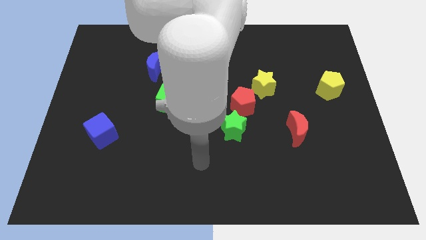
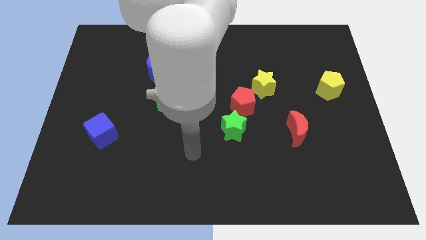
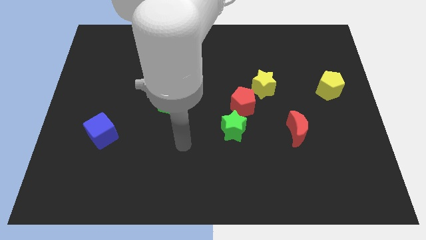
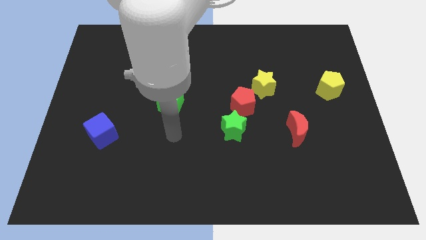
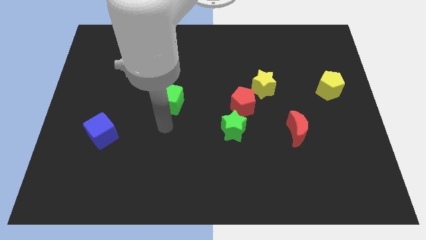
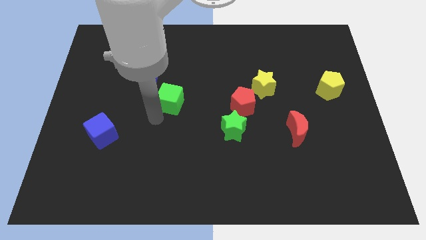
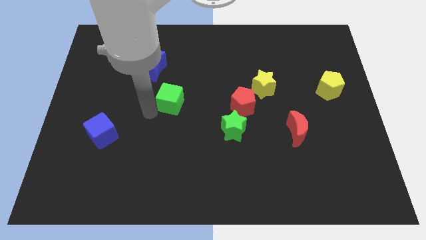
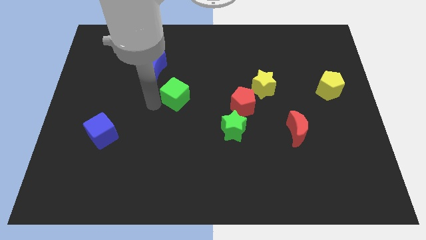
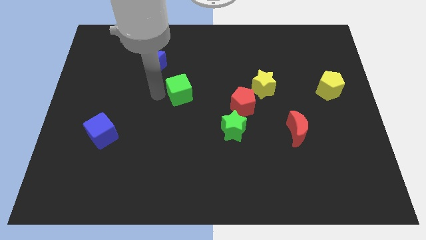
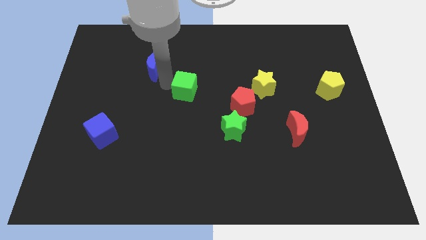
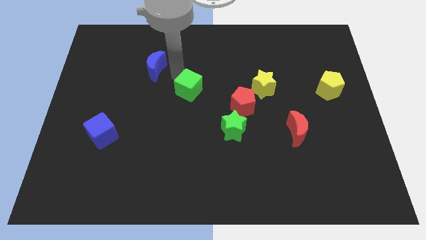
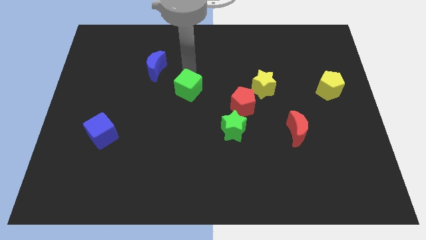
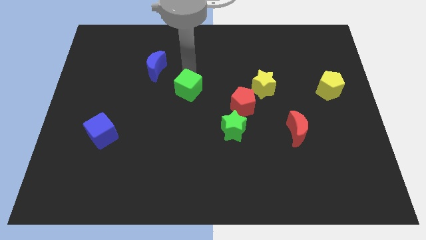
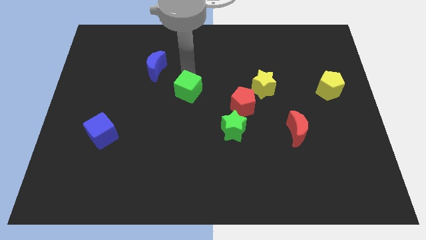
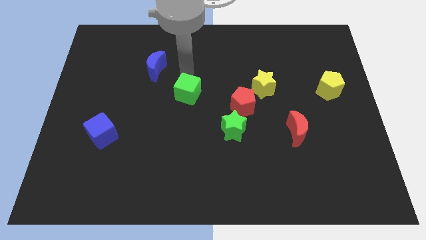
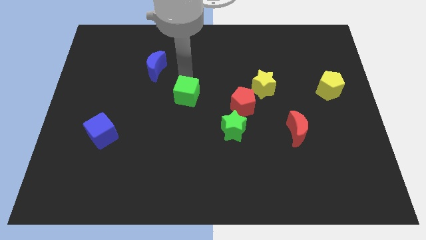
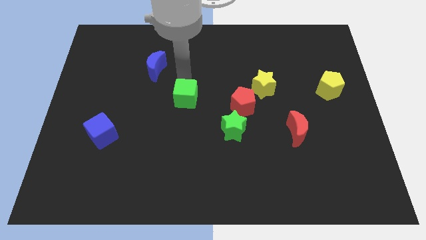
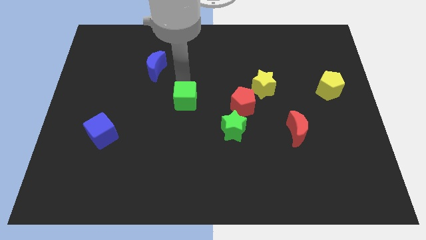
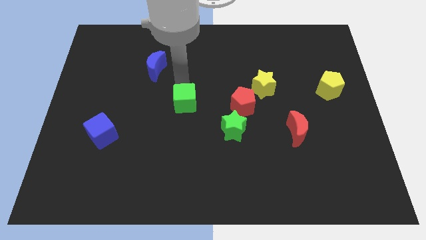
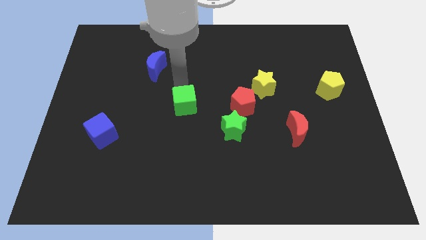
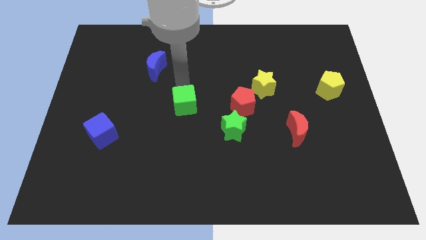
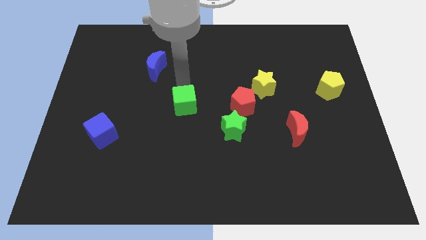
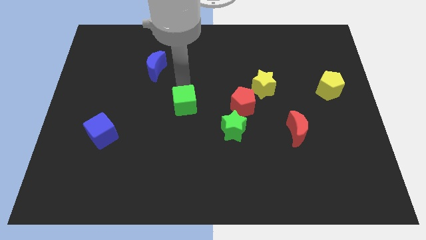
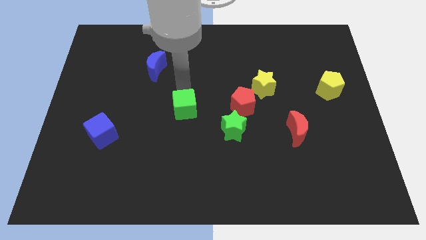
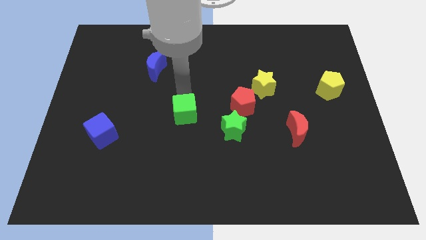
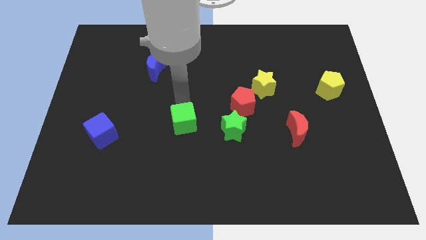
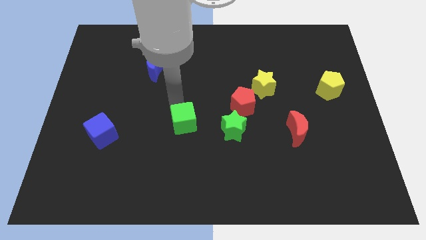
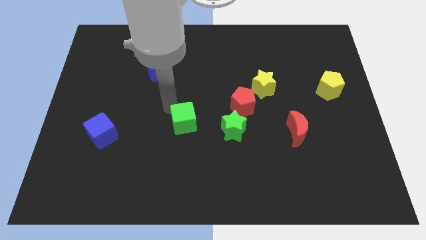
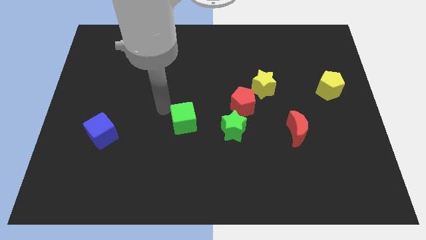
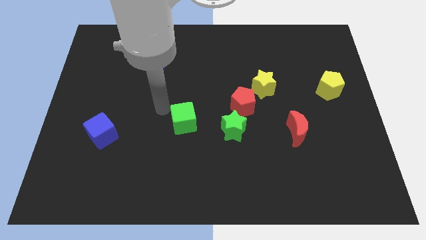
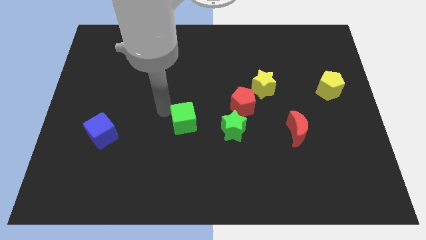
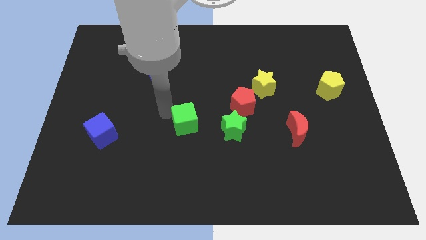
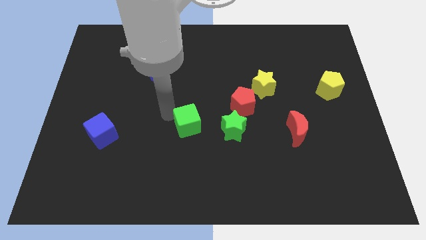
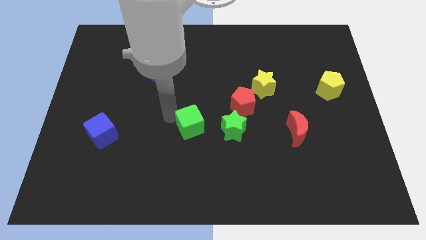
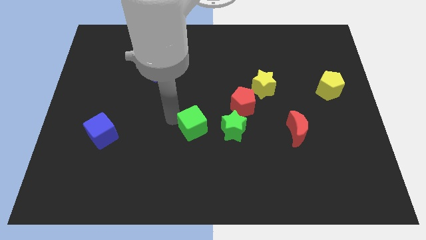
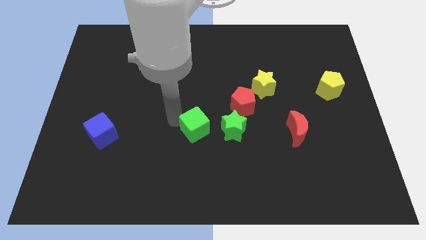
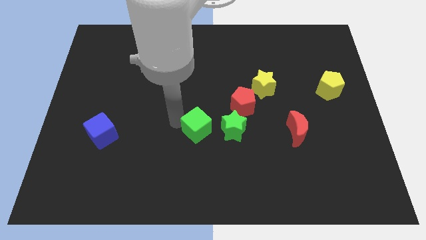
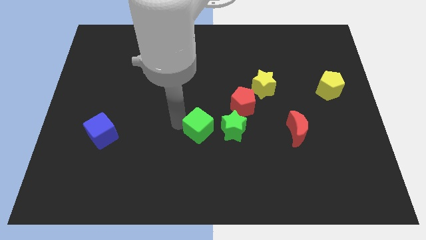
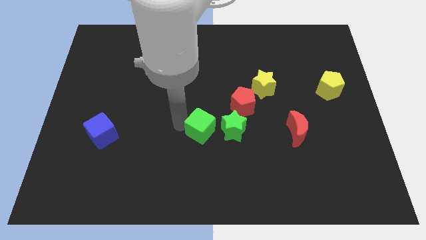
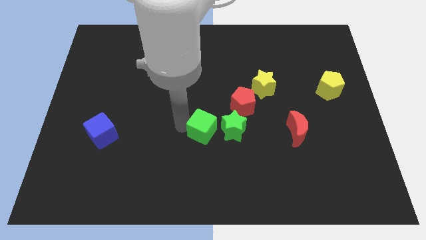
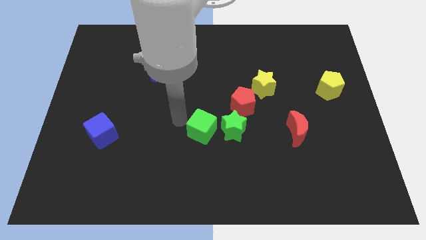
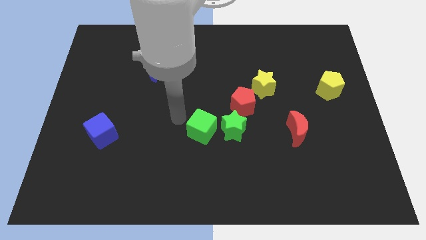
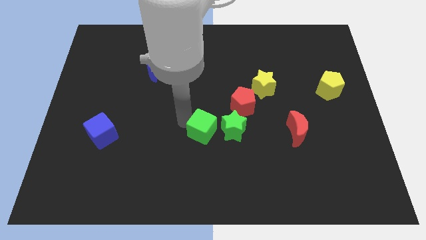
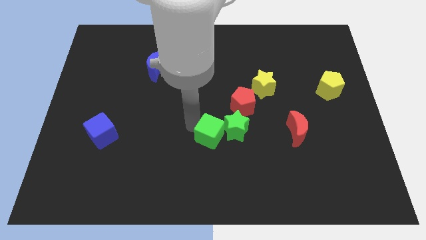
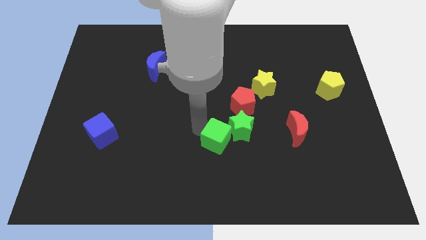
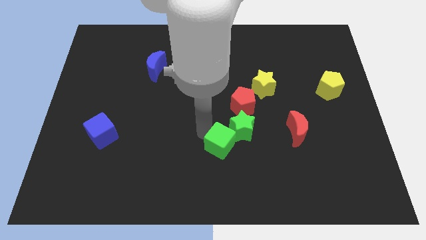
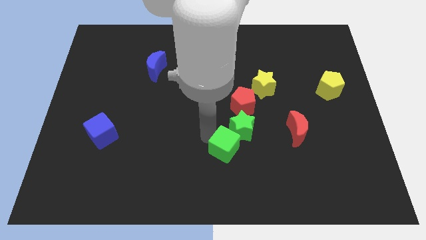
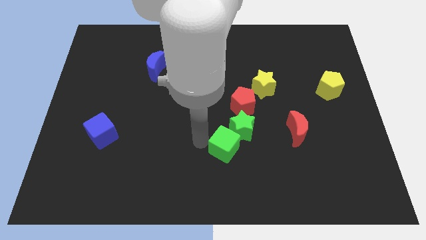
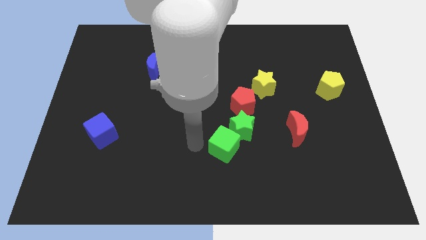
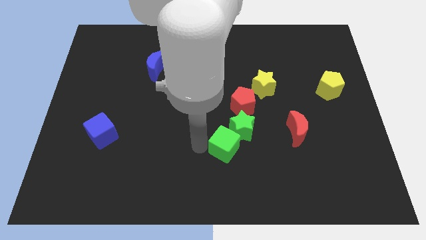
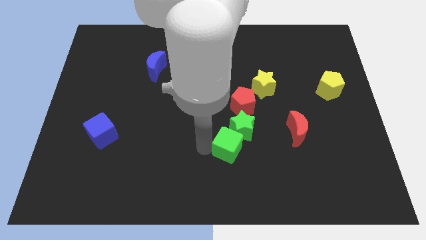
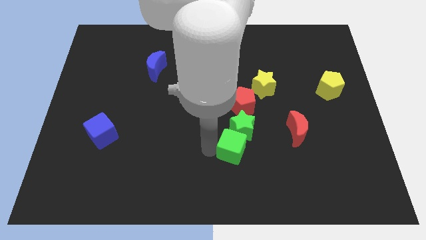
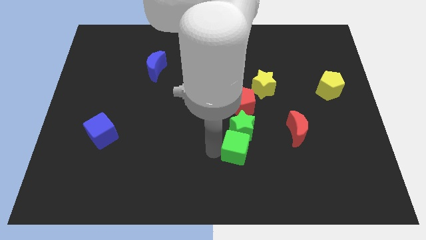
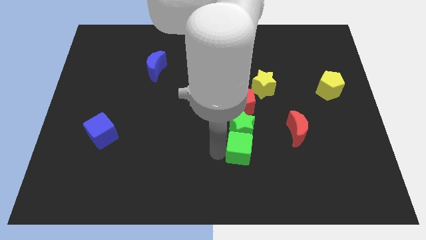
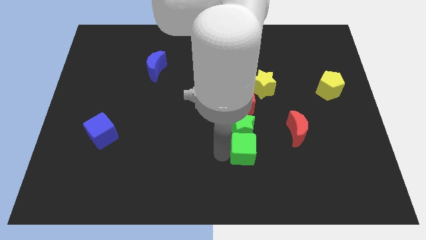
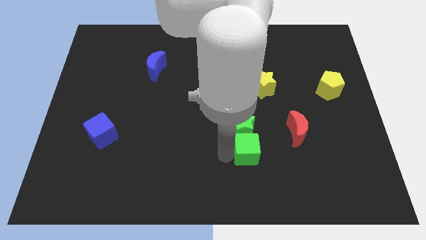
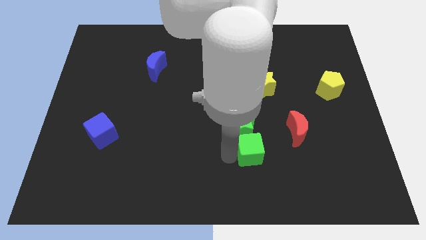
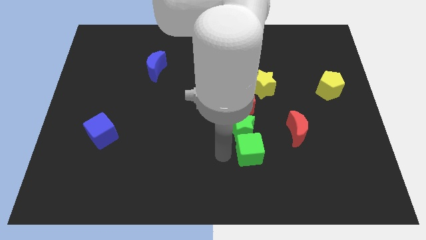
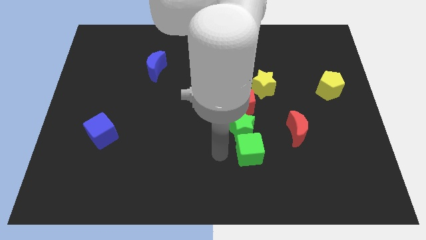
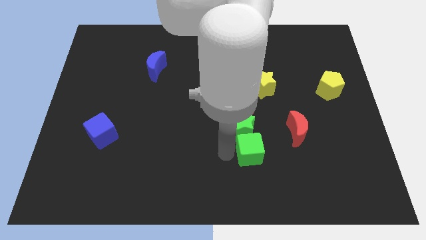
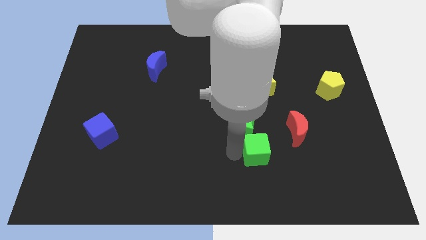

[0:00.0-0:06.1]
slide the green cube to the bottom left of the red moon

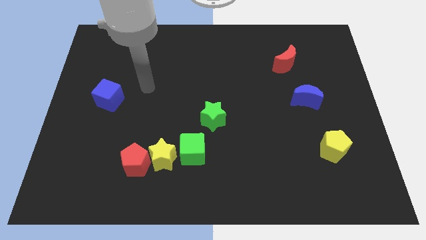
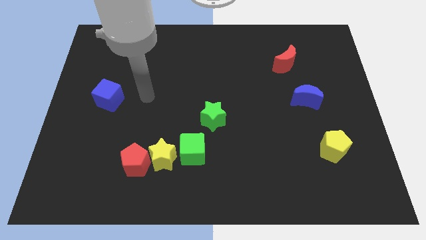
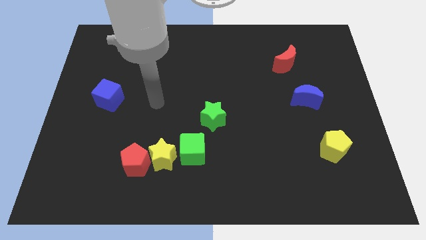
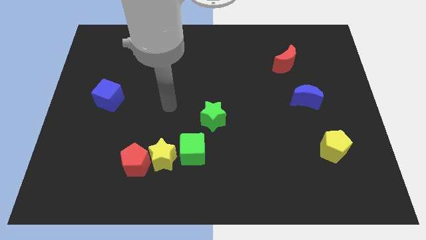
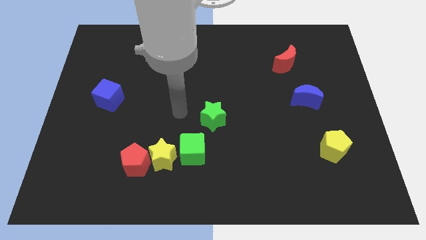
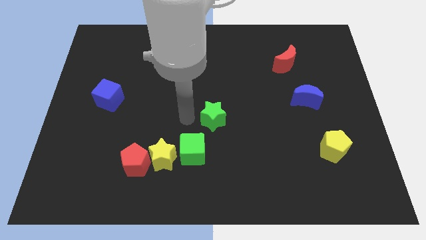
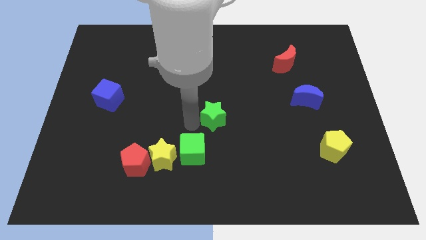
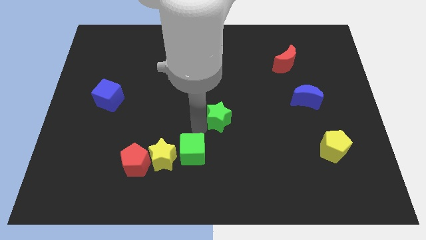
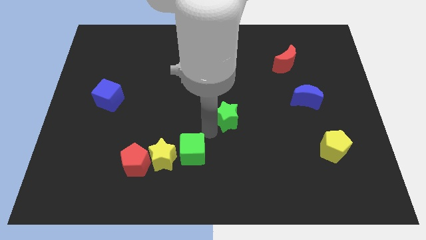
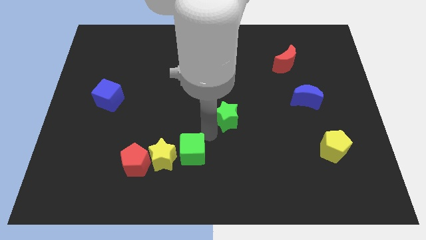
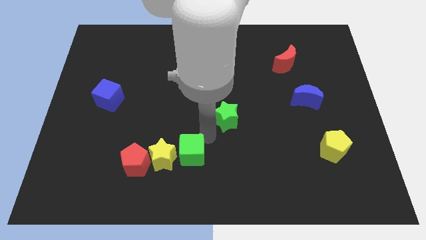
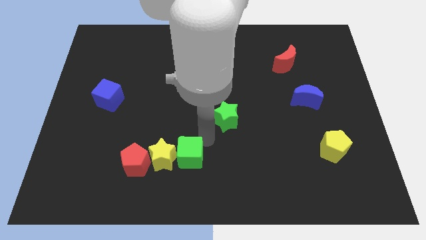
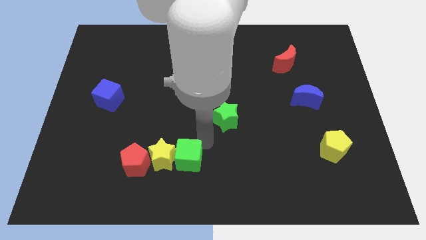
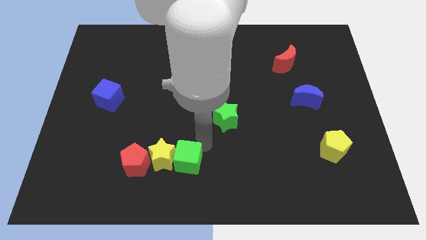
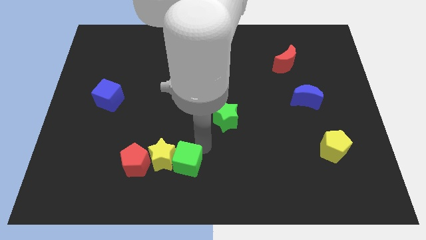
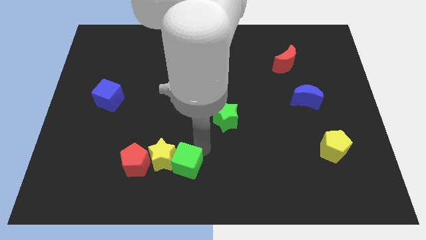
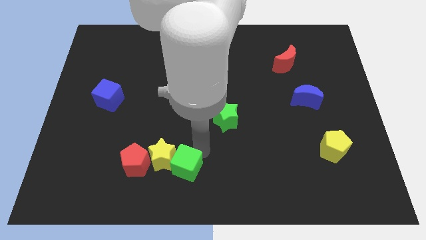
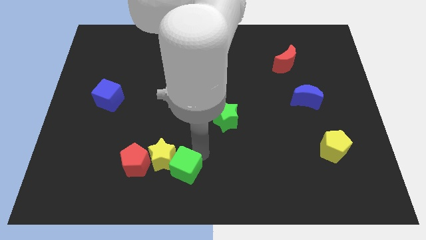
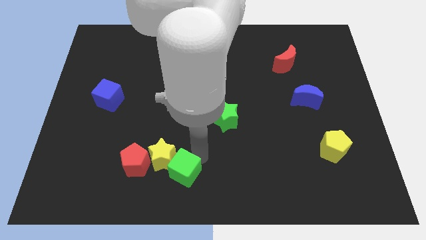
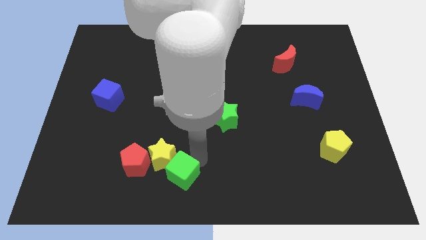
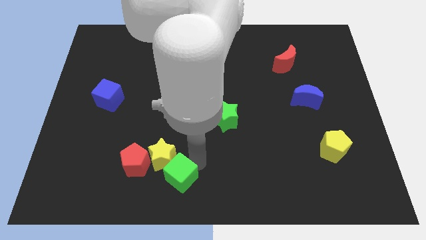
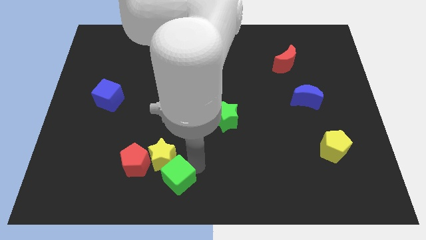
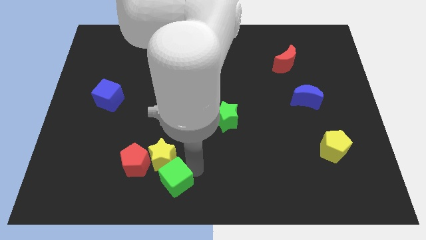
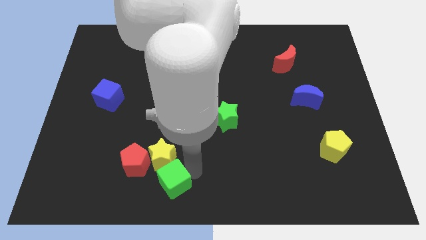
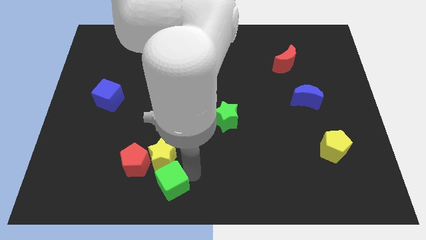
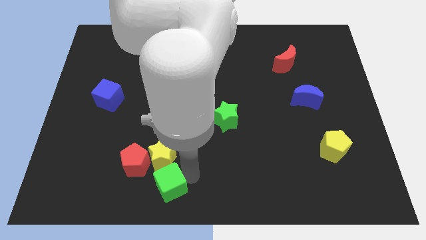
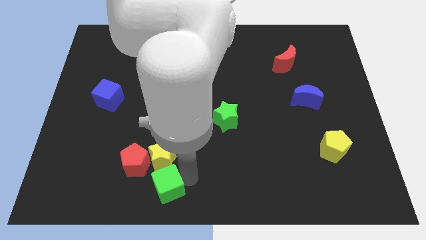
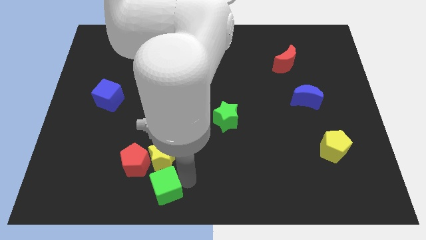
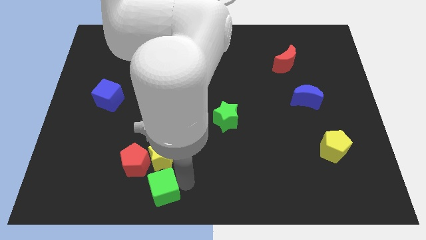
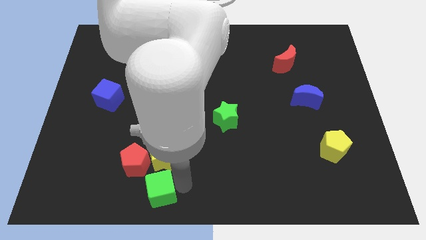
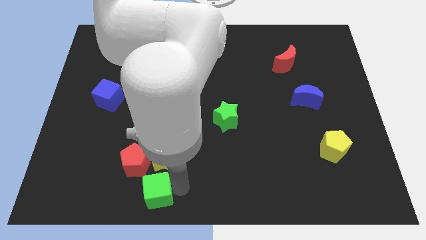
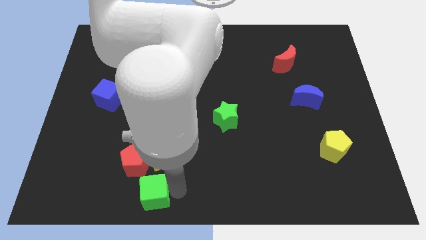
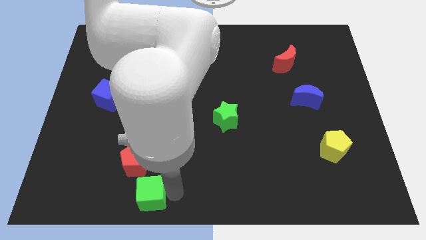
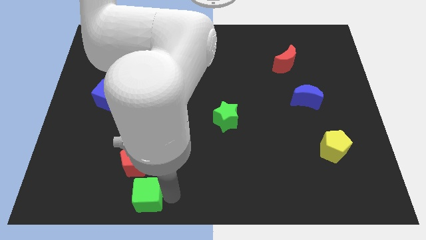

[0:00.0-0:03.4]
slide the green cube to the bottom left of the yellow star
